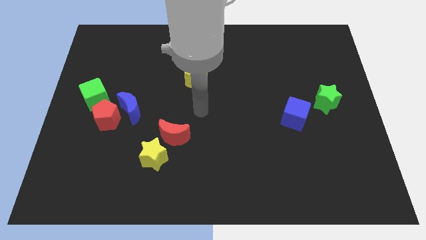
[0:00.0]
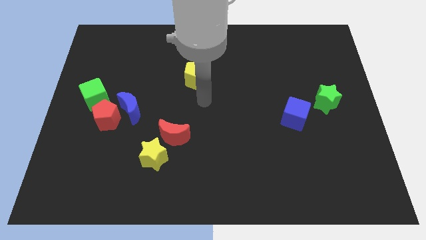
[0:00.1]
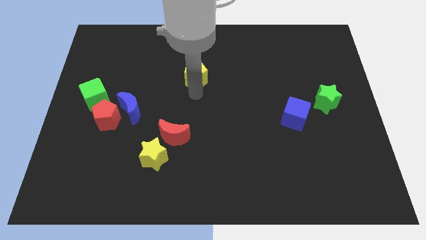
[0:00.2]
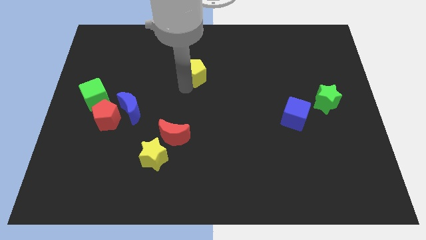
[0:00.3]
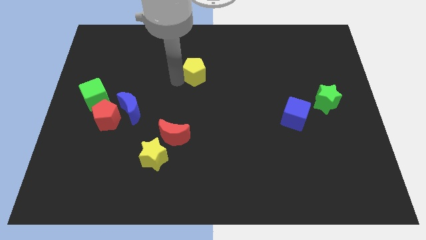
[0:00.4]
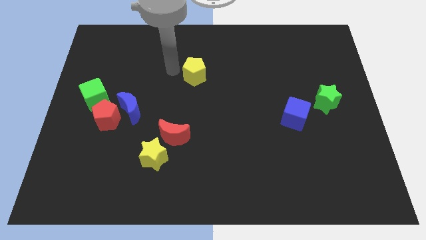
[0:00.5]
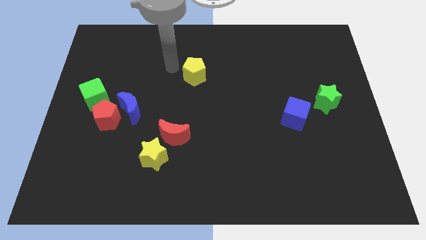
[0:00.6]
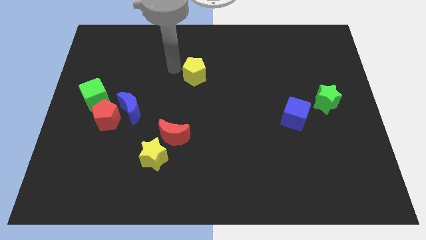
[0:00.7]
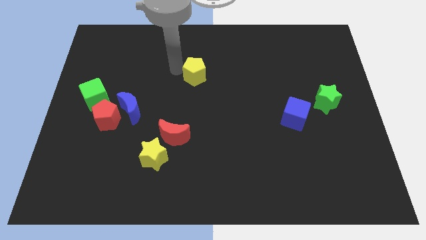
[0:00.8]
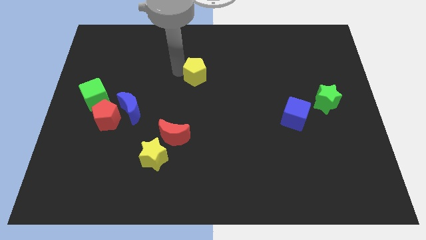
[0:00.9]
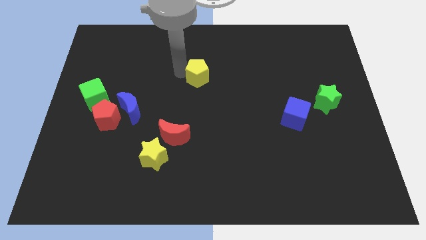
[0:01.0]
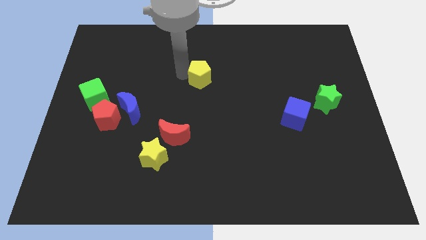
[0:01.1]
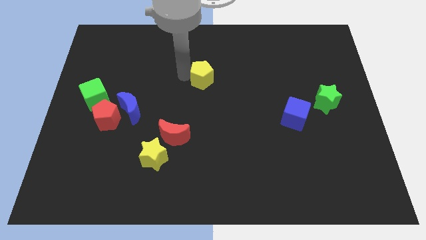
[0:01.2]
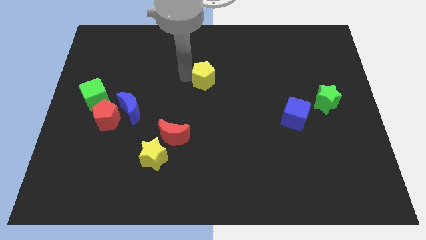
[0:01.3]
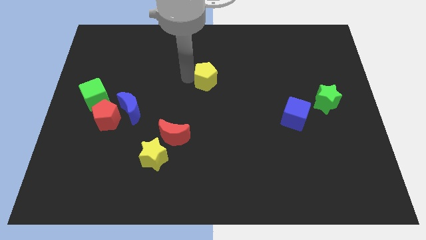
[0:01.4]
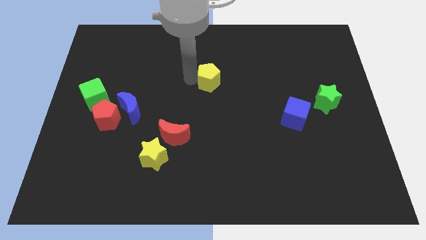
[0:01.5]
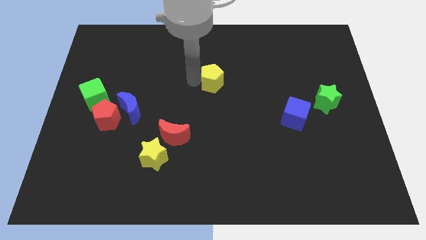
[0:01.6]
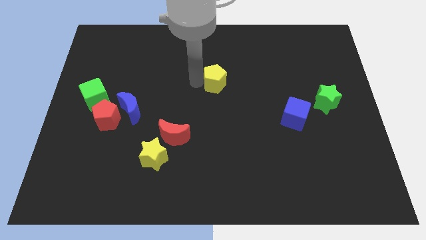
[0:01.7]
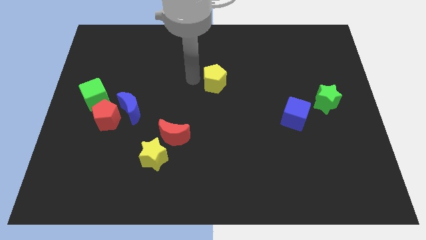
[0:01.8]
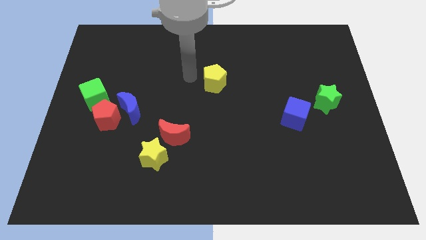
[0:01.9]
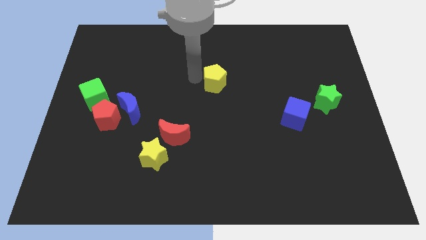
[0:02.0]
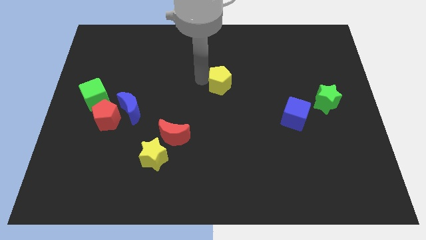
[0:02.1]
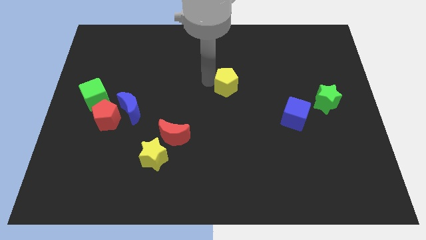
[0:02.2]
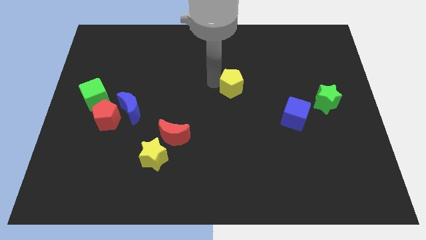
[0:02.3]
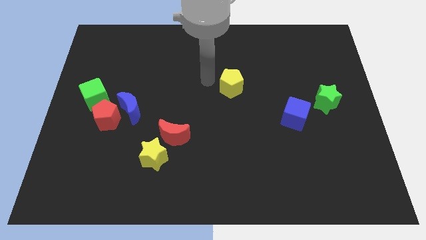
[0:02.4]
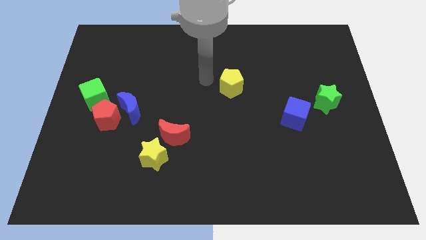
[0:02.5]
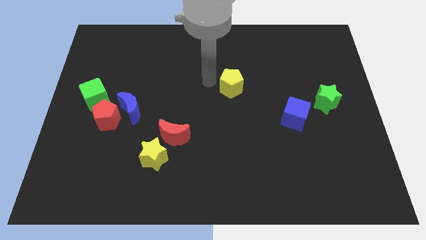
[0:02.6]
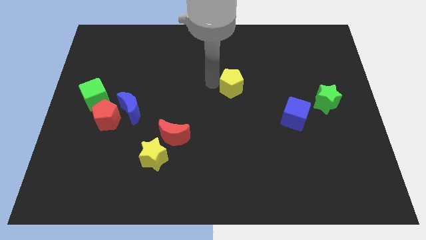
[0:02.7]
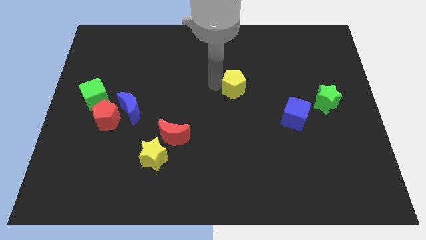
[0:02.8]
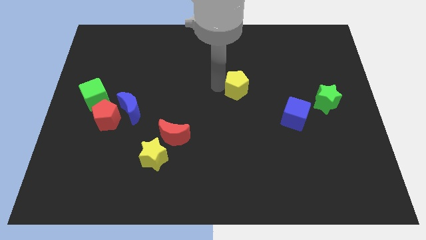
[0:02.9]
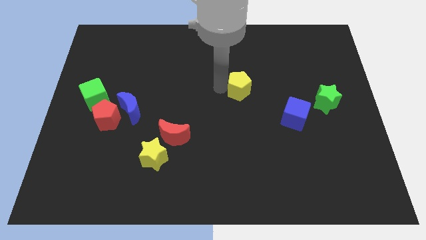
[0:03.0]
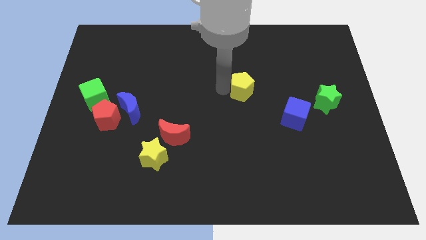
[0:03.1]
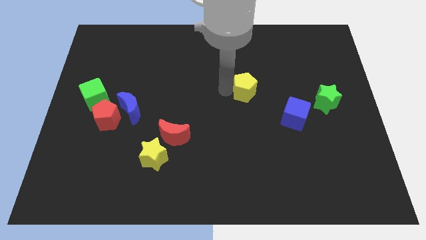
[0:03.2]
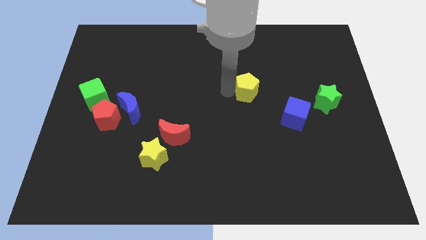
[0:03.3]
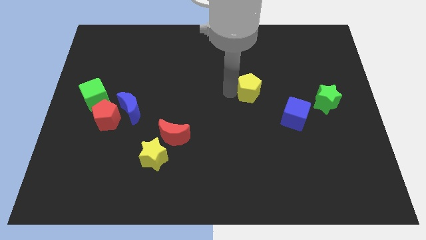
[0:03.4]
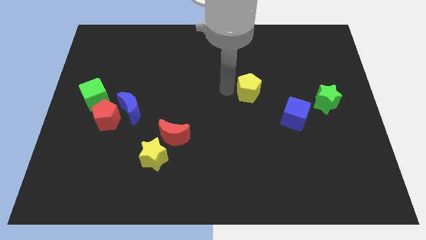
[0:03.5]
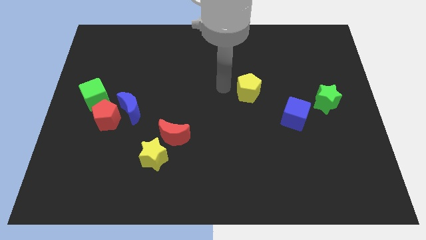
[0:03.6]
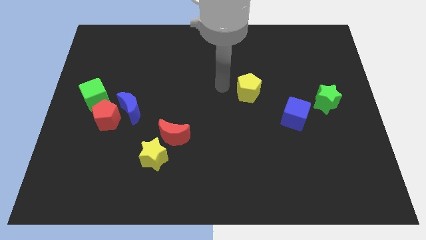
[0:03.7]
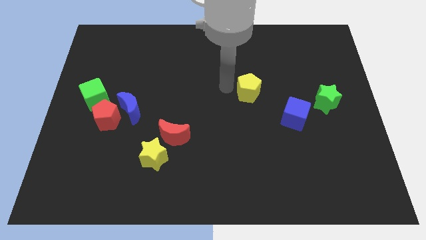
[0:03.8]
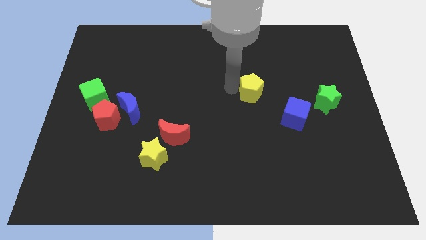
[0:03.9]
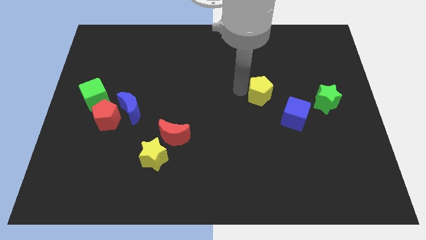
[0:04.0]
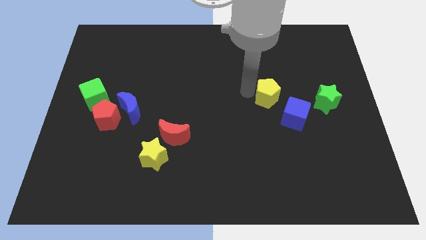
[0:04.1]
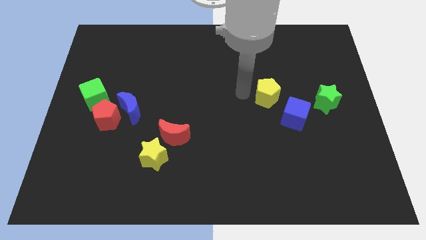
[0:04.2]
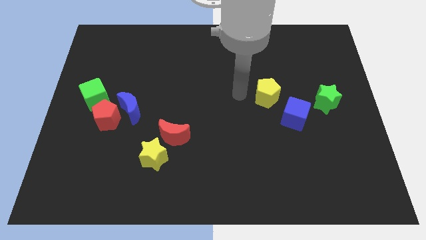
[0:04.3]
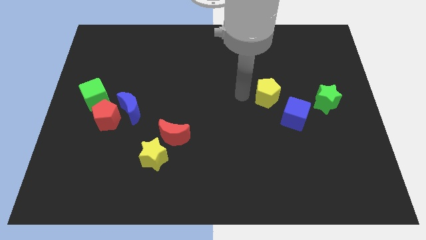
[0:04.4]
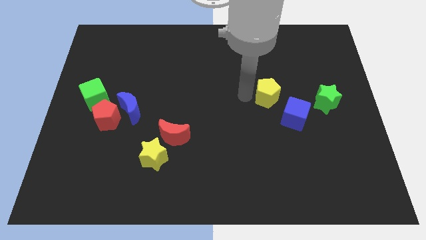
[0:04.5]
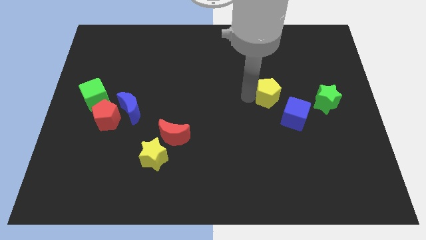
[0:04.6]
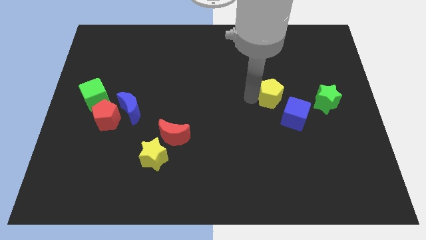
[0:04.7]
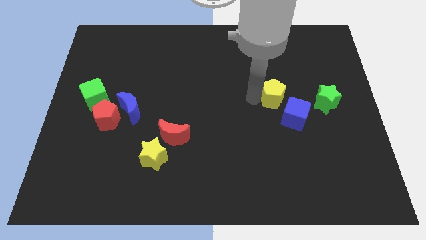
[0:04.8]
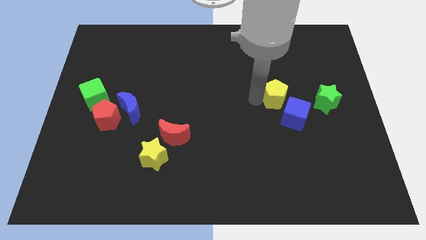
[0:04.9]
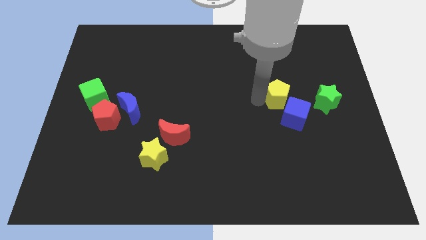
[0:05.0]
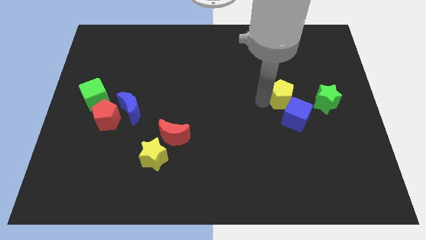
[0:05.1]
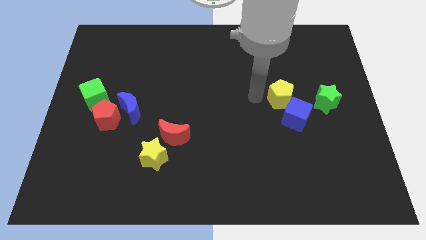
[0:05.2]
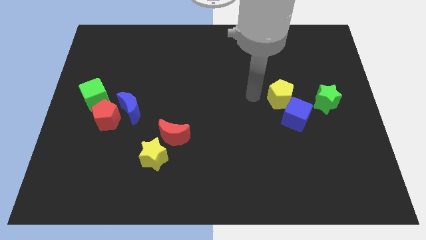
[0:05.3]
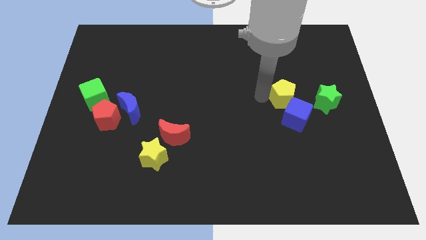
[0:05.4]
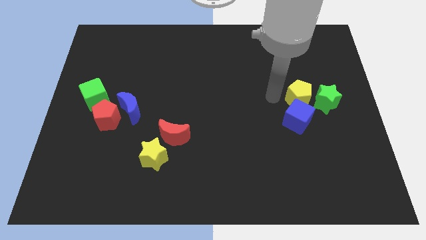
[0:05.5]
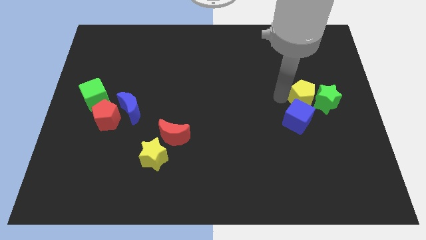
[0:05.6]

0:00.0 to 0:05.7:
put the yellow pentagon towards the green star

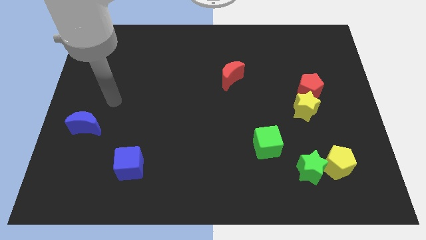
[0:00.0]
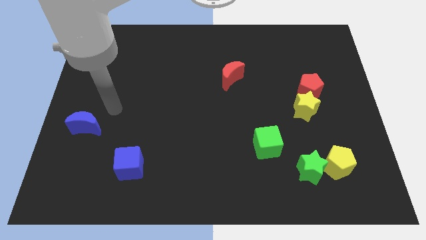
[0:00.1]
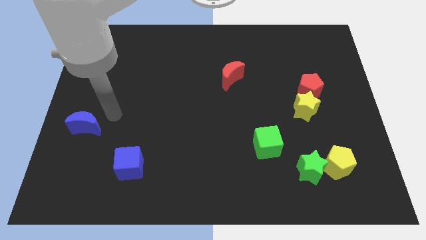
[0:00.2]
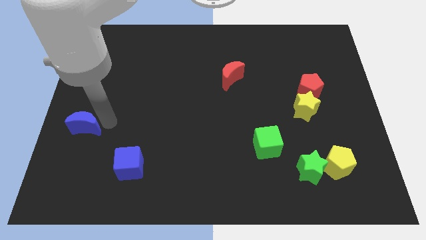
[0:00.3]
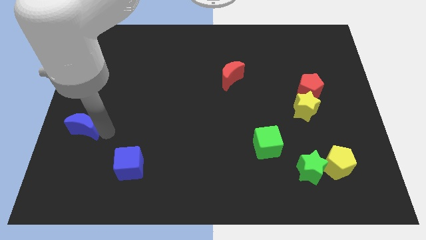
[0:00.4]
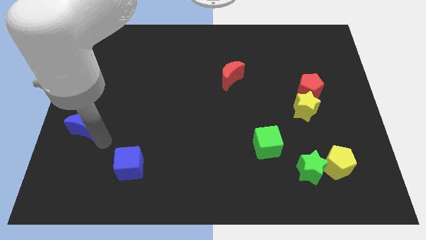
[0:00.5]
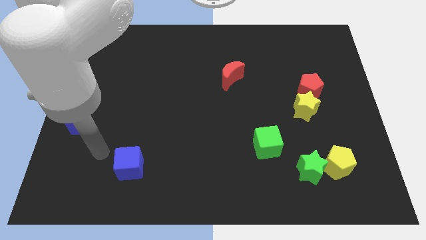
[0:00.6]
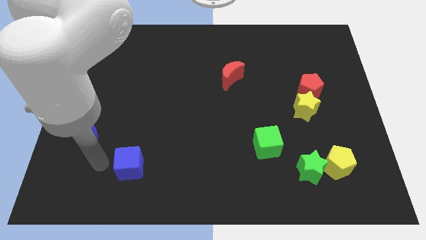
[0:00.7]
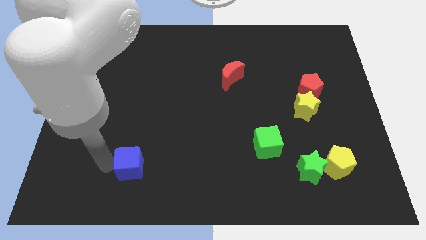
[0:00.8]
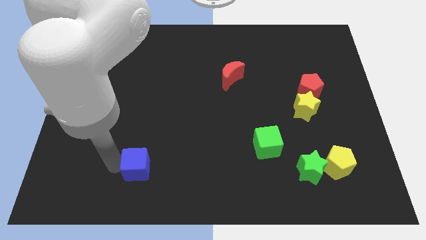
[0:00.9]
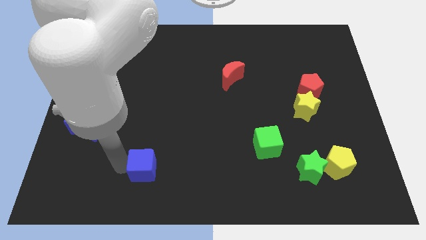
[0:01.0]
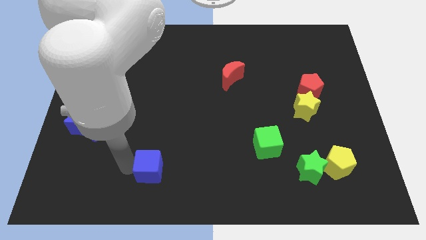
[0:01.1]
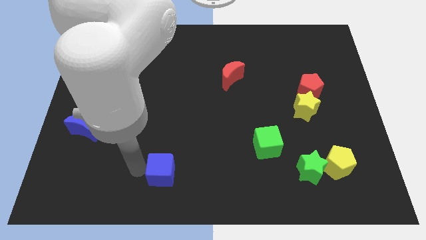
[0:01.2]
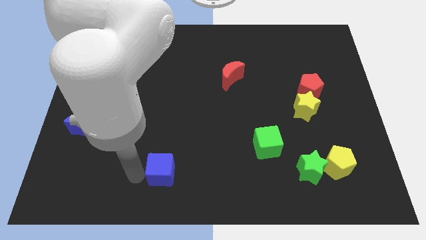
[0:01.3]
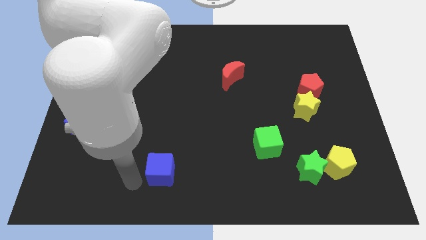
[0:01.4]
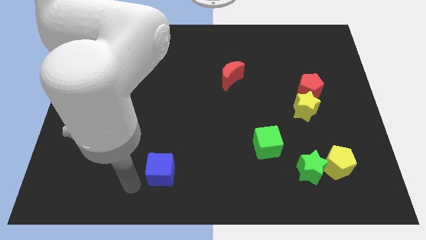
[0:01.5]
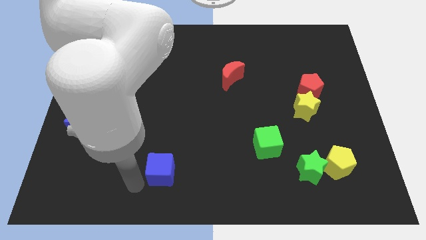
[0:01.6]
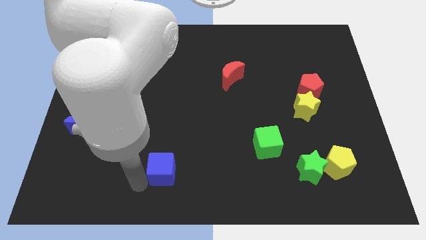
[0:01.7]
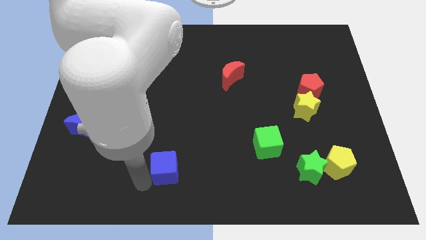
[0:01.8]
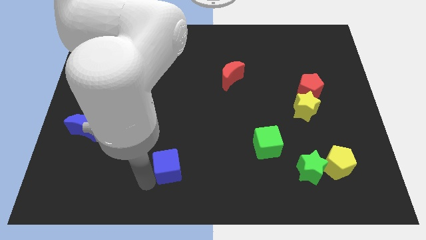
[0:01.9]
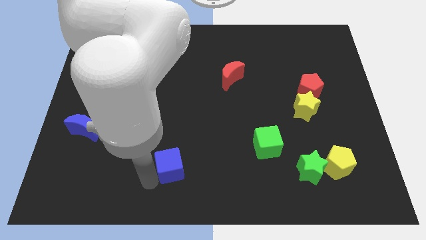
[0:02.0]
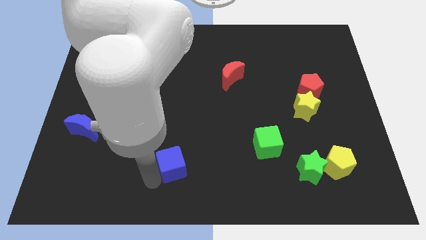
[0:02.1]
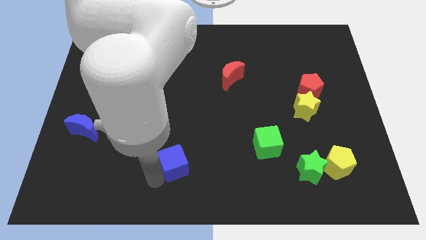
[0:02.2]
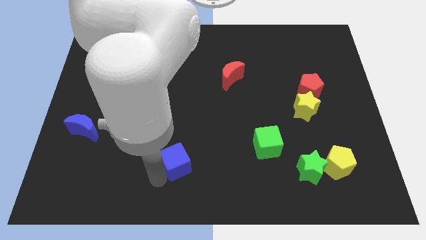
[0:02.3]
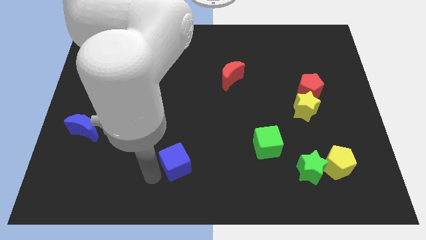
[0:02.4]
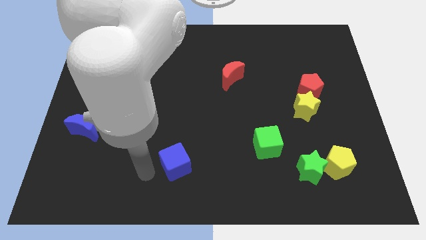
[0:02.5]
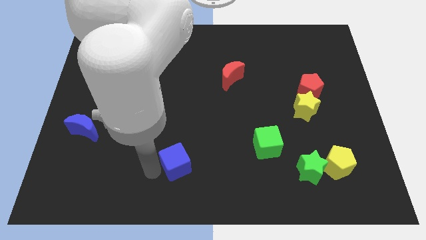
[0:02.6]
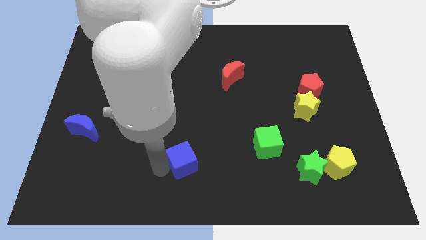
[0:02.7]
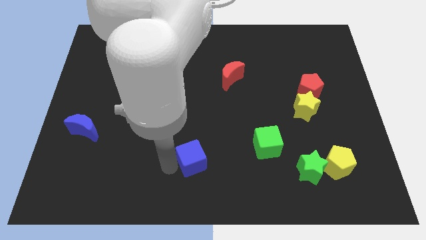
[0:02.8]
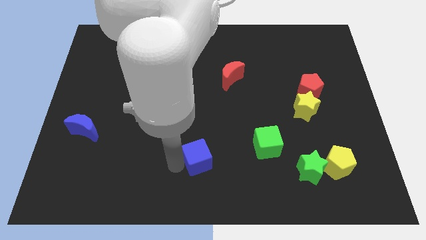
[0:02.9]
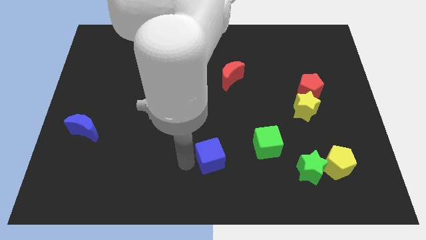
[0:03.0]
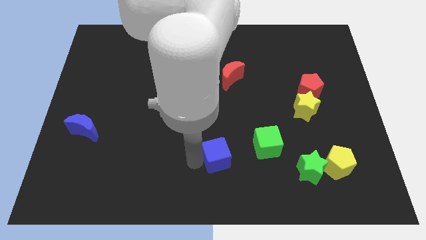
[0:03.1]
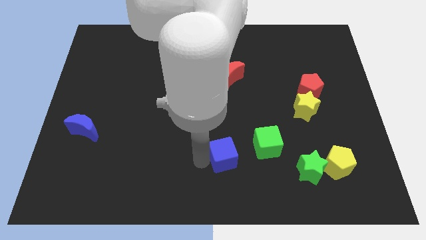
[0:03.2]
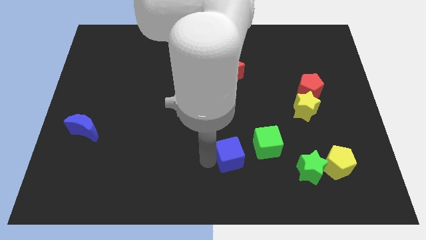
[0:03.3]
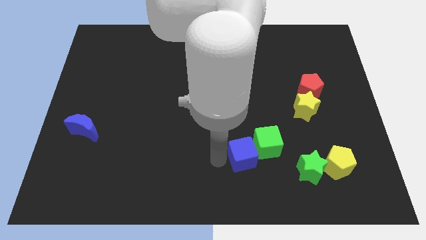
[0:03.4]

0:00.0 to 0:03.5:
move the blue cube to the green cube
